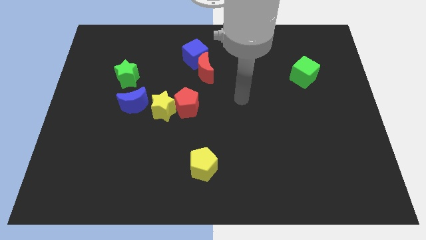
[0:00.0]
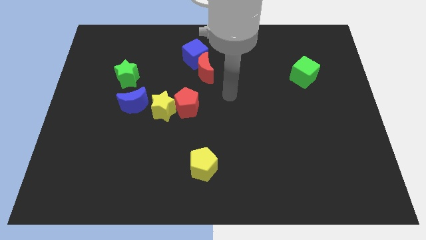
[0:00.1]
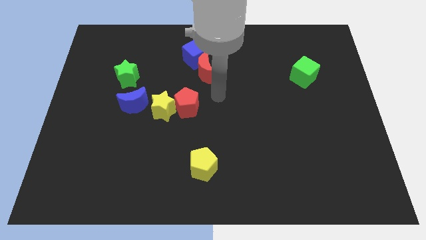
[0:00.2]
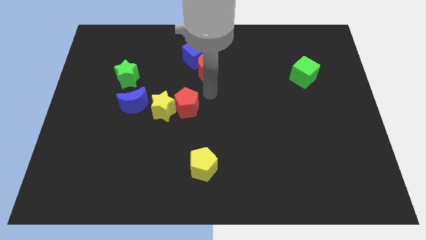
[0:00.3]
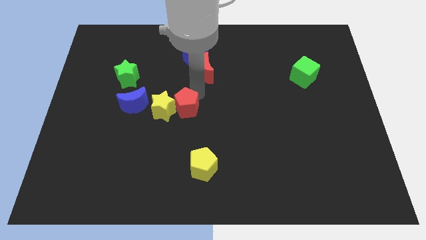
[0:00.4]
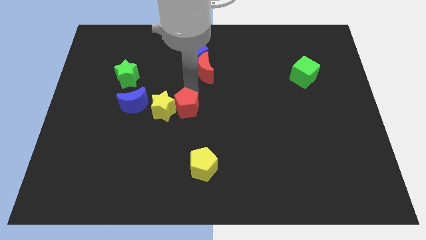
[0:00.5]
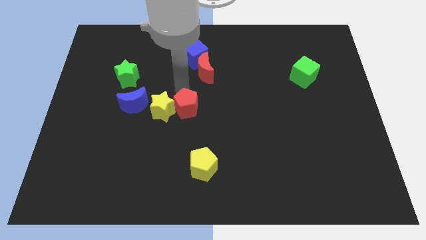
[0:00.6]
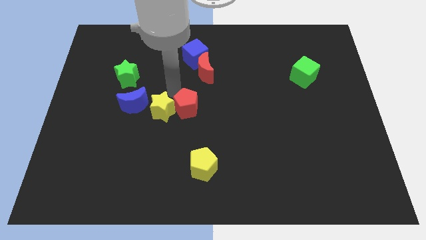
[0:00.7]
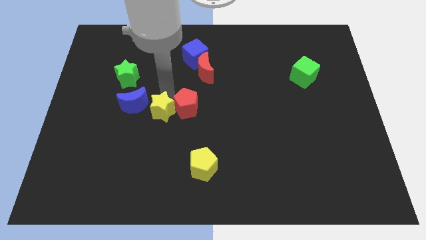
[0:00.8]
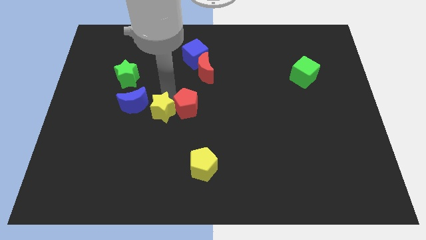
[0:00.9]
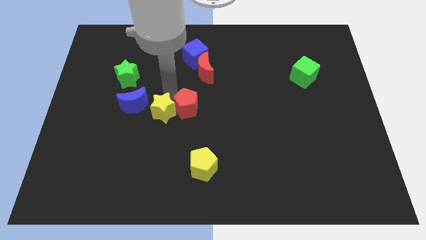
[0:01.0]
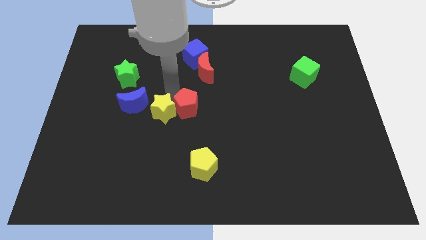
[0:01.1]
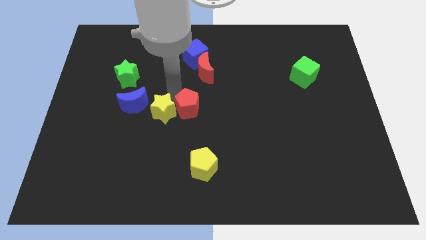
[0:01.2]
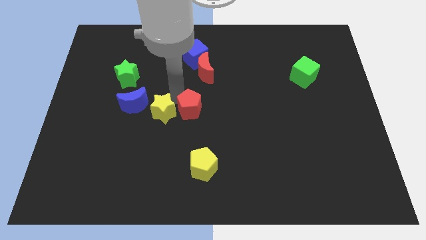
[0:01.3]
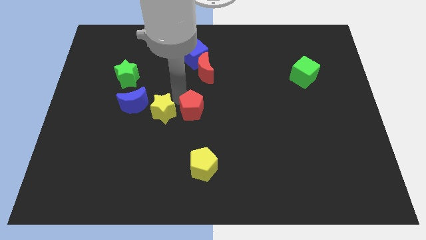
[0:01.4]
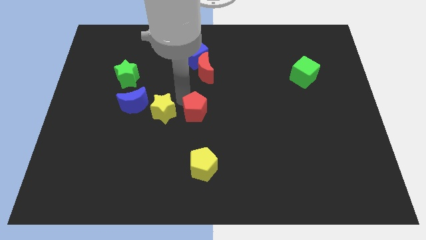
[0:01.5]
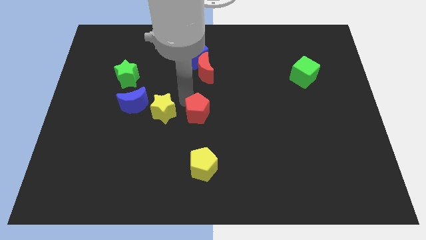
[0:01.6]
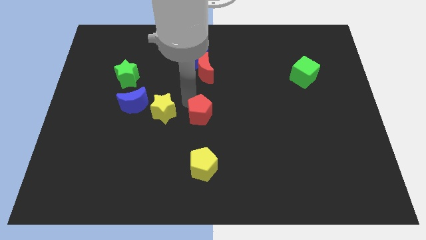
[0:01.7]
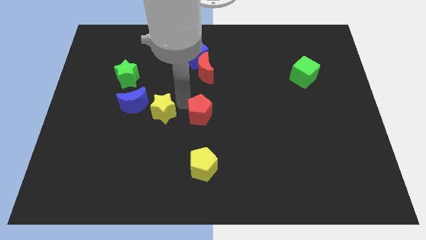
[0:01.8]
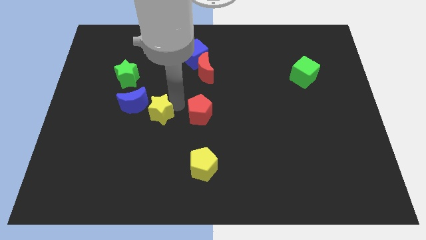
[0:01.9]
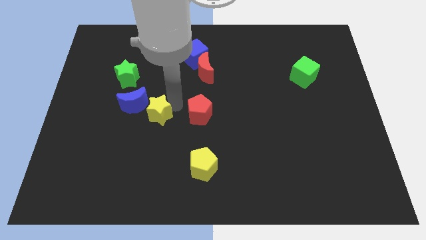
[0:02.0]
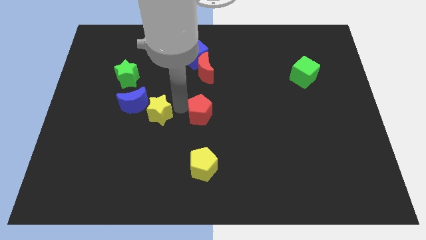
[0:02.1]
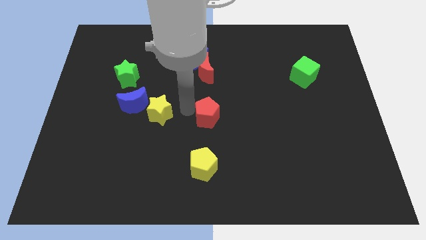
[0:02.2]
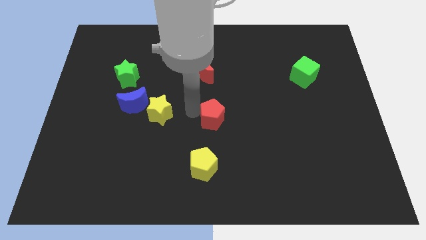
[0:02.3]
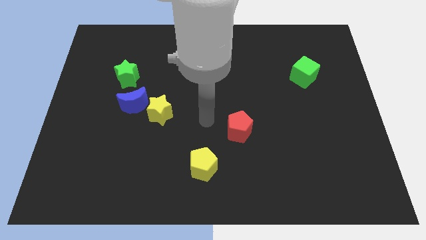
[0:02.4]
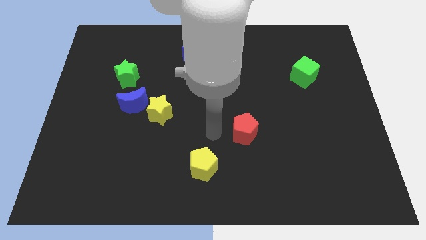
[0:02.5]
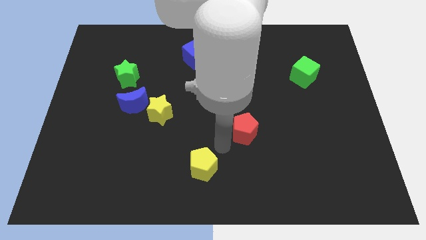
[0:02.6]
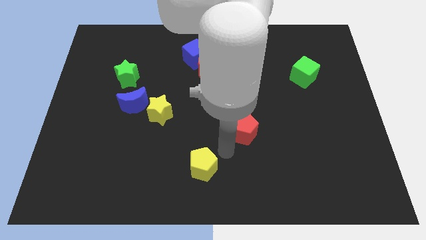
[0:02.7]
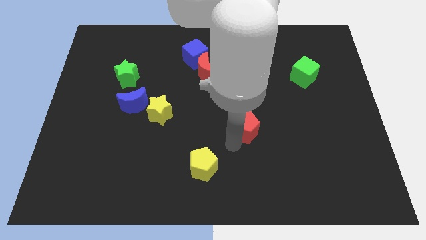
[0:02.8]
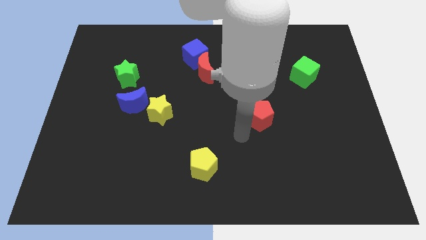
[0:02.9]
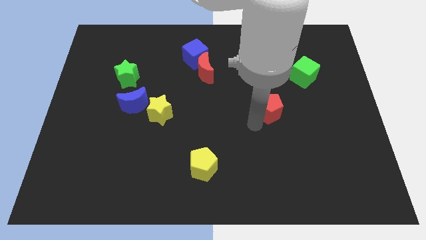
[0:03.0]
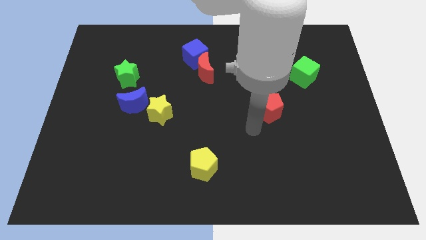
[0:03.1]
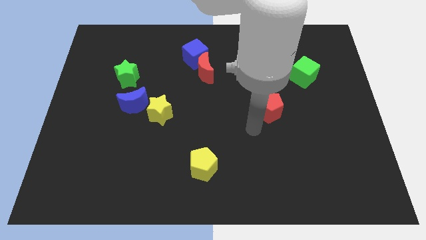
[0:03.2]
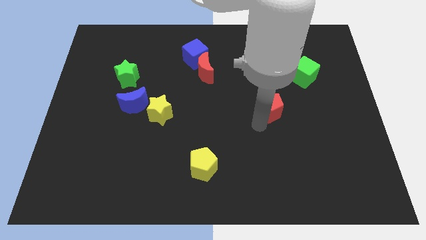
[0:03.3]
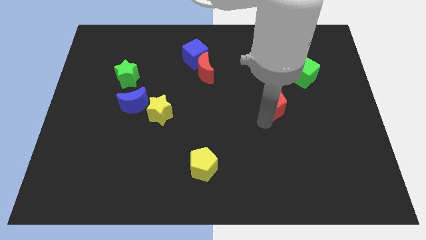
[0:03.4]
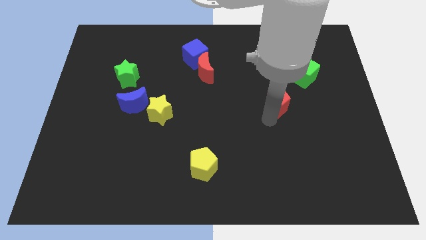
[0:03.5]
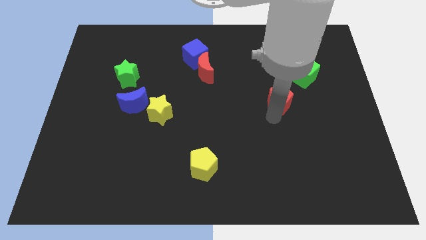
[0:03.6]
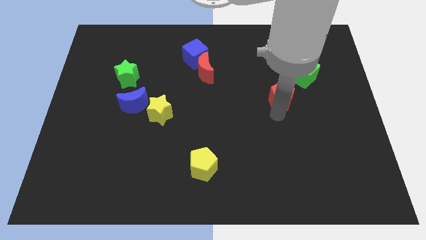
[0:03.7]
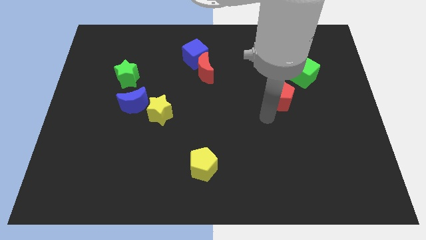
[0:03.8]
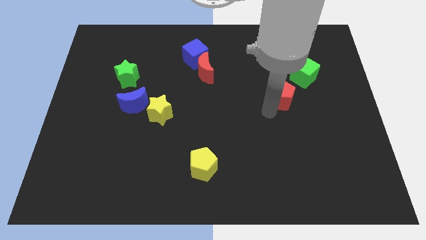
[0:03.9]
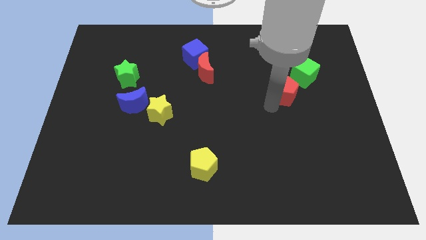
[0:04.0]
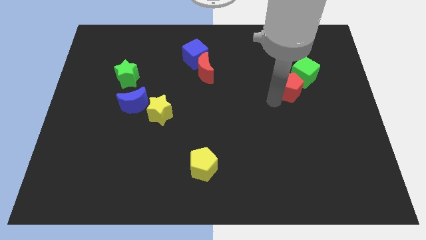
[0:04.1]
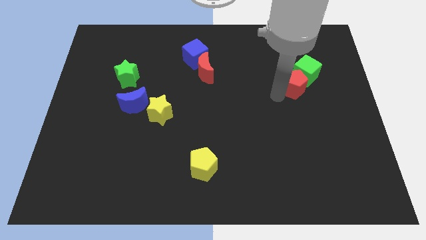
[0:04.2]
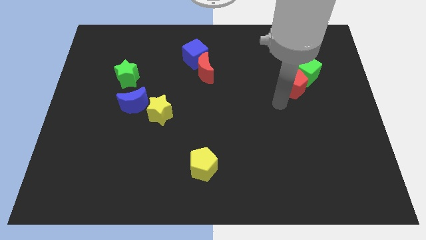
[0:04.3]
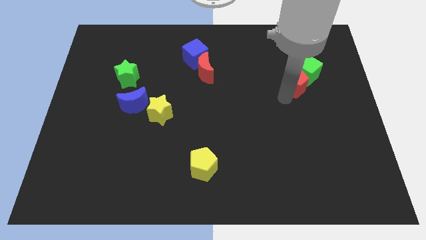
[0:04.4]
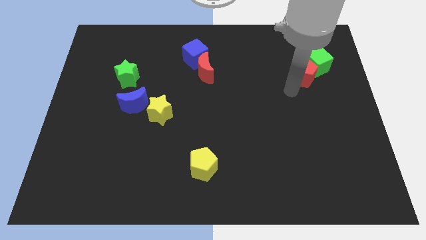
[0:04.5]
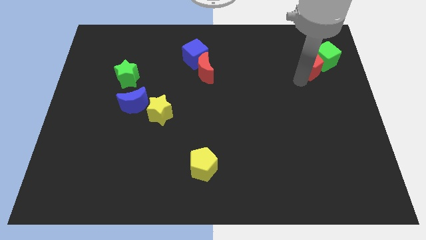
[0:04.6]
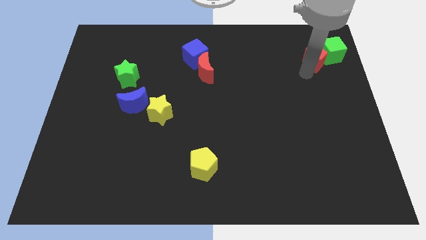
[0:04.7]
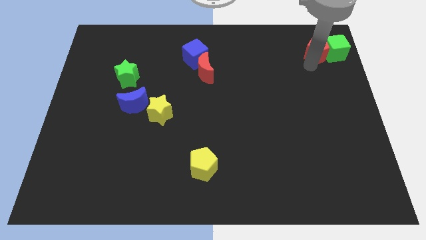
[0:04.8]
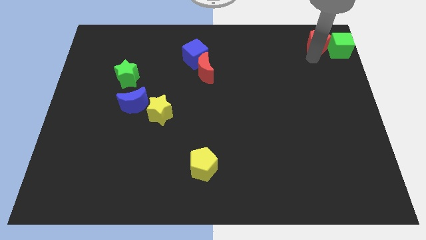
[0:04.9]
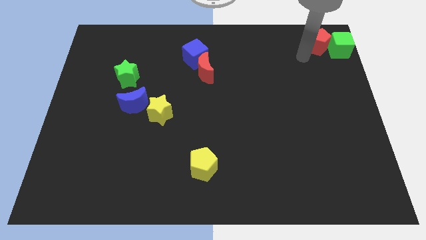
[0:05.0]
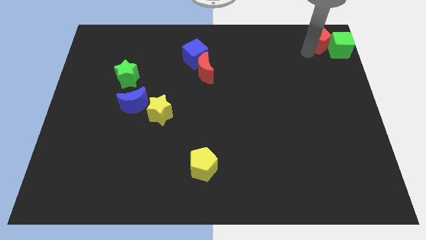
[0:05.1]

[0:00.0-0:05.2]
put the red pentagon to the top right of the board

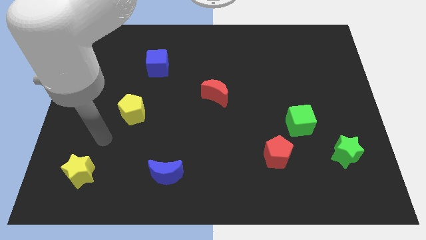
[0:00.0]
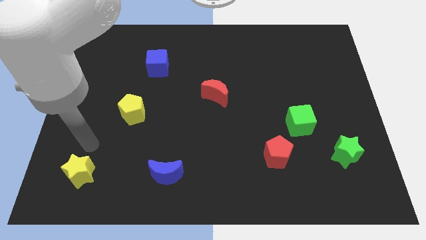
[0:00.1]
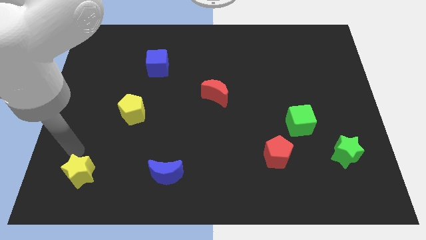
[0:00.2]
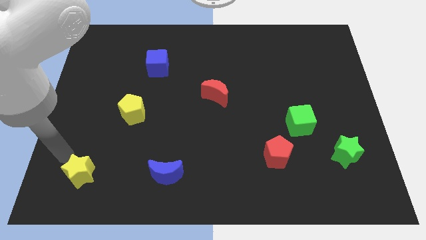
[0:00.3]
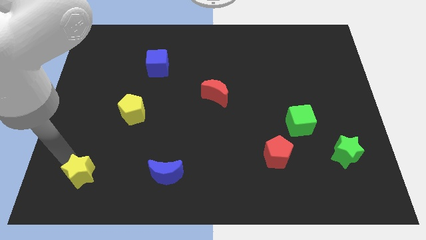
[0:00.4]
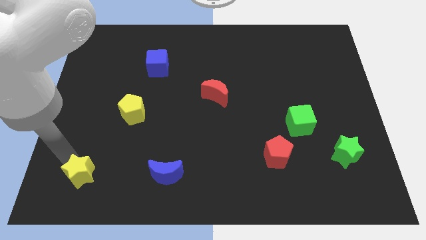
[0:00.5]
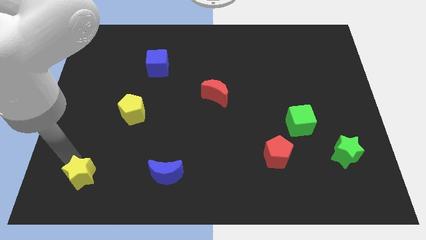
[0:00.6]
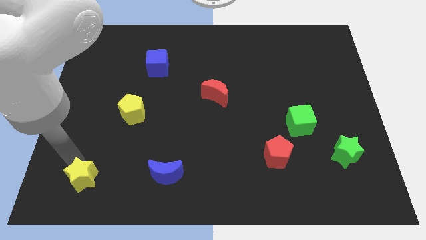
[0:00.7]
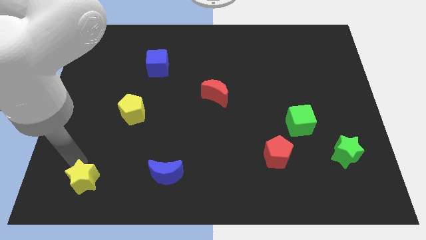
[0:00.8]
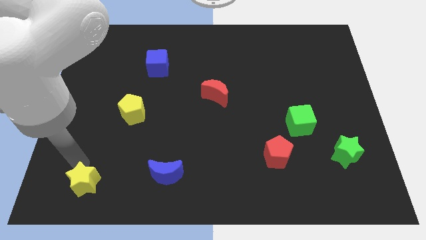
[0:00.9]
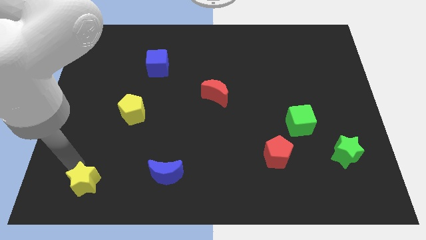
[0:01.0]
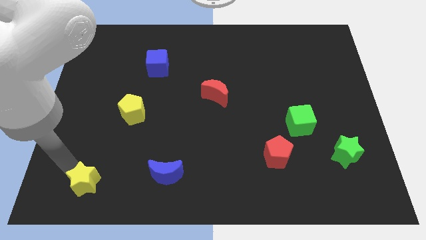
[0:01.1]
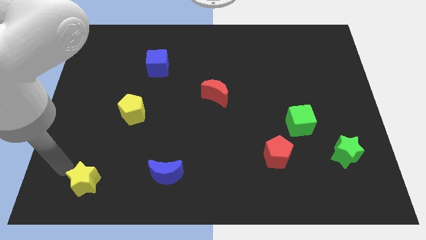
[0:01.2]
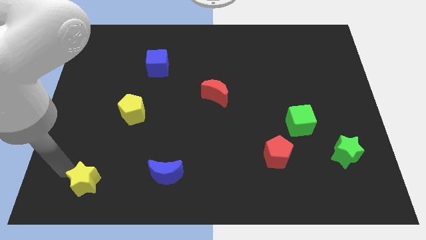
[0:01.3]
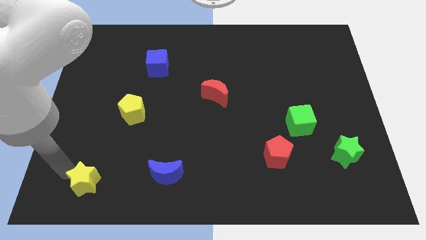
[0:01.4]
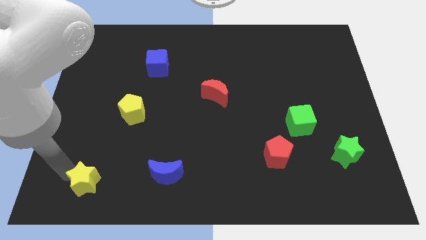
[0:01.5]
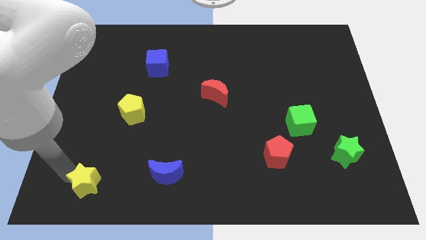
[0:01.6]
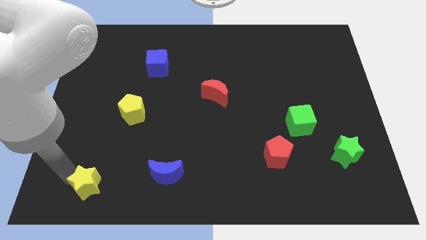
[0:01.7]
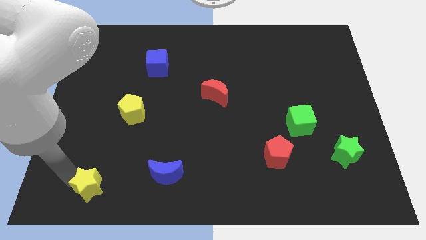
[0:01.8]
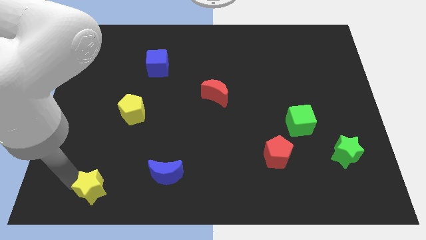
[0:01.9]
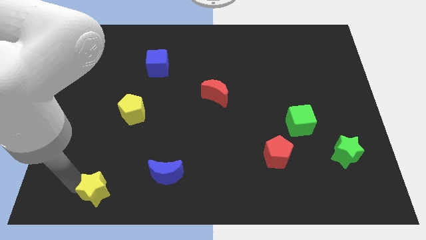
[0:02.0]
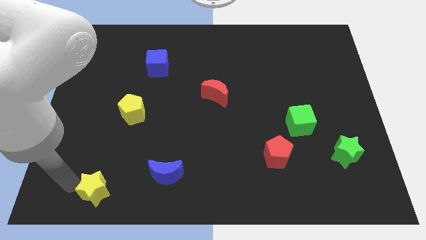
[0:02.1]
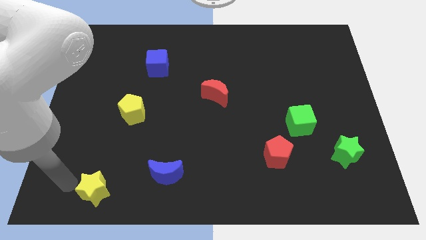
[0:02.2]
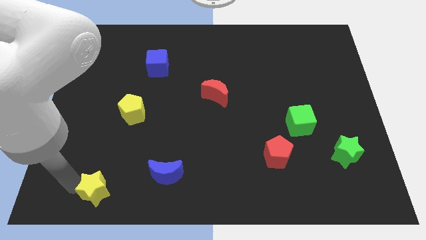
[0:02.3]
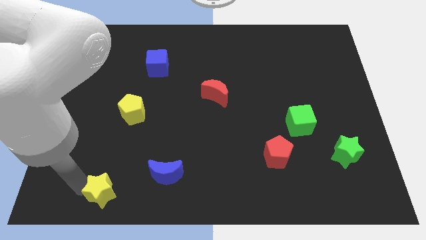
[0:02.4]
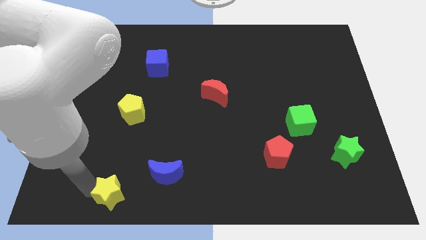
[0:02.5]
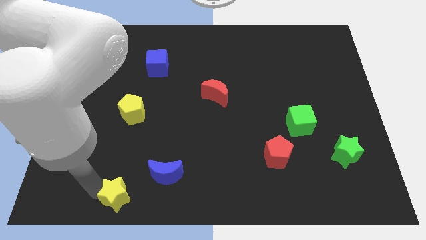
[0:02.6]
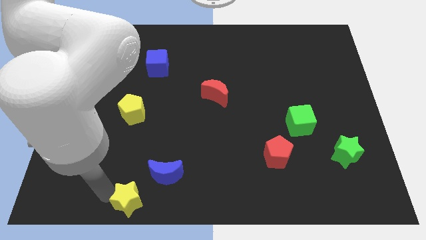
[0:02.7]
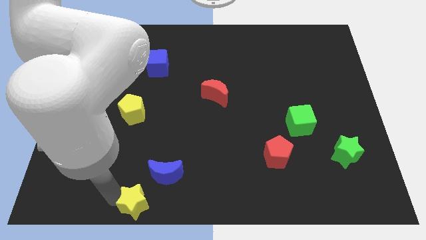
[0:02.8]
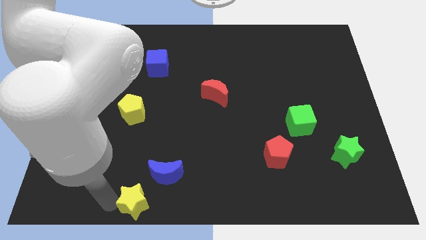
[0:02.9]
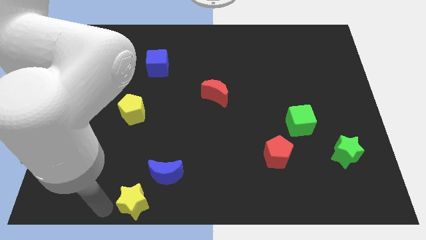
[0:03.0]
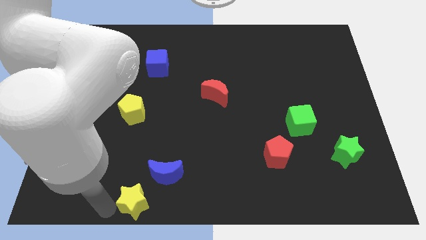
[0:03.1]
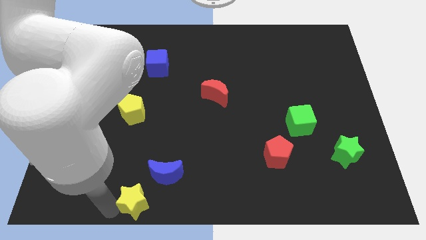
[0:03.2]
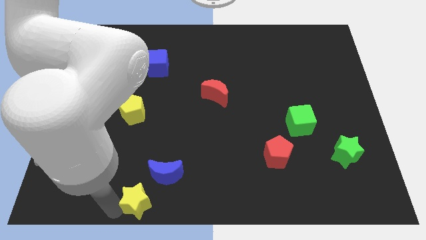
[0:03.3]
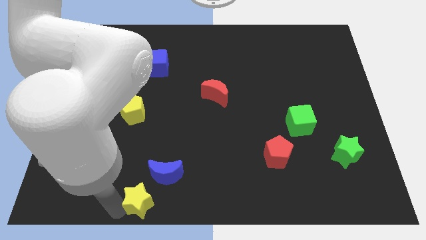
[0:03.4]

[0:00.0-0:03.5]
put the yellow star to the bottom
